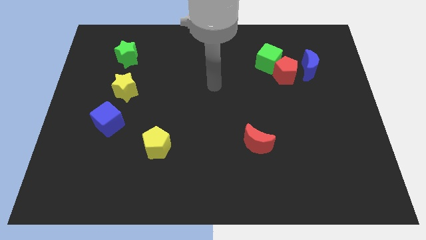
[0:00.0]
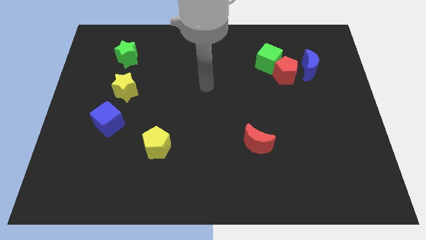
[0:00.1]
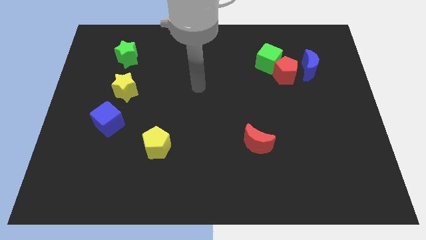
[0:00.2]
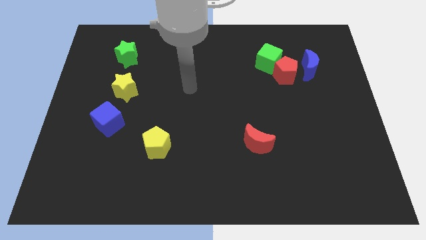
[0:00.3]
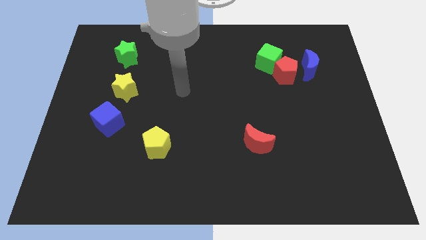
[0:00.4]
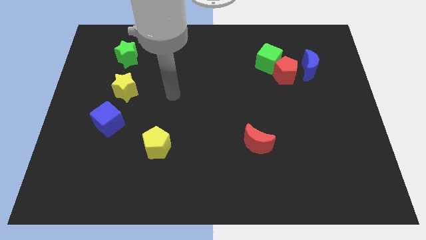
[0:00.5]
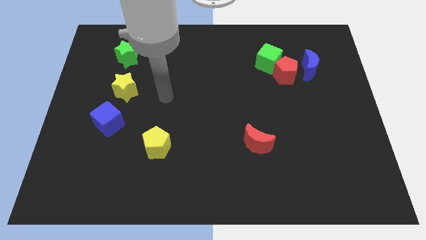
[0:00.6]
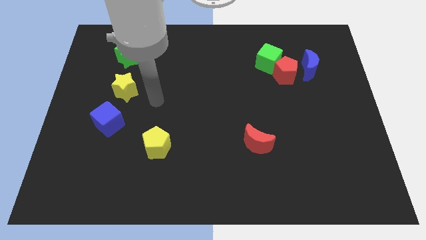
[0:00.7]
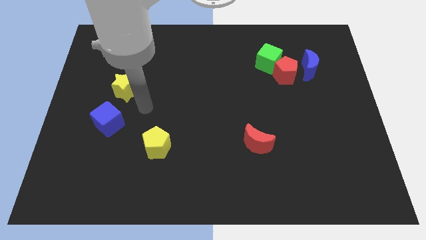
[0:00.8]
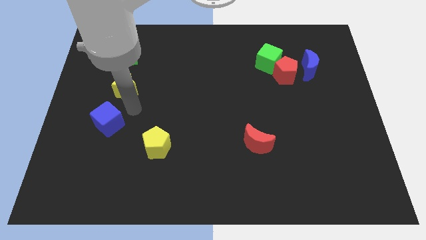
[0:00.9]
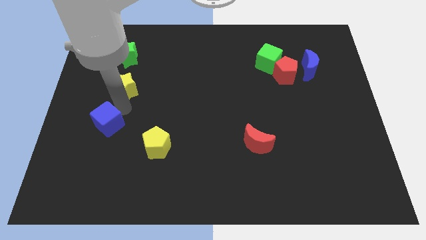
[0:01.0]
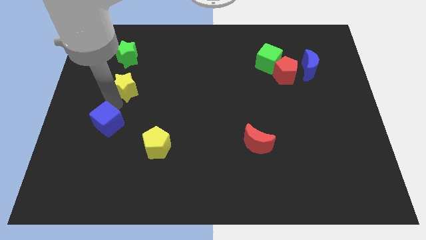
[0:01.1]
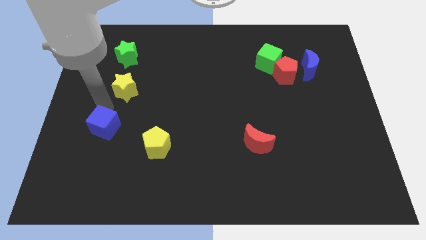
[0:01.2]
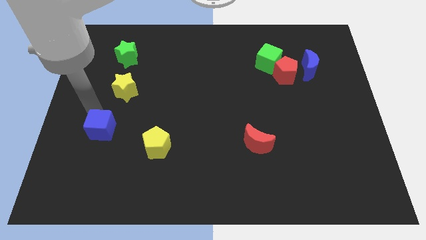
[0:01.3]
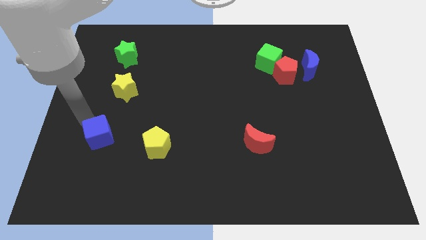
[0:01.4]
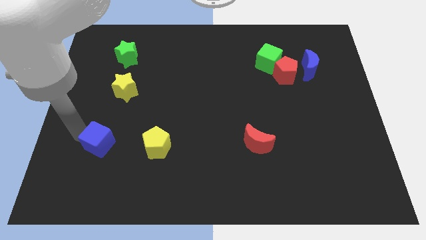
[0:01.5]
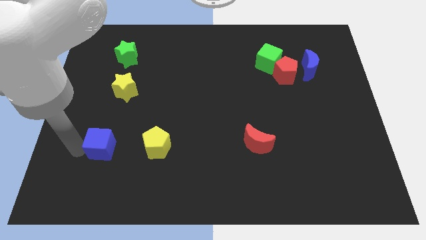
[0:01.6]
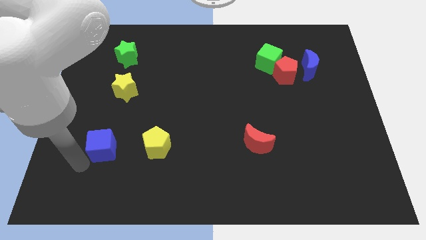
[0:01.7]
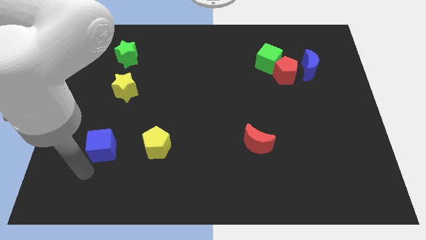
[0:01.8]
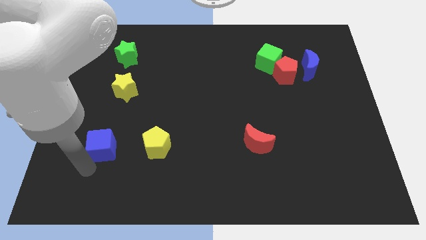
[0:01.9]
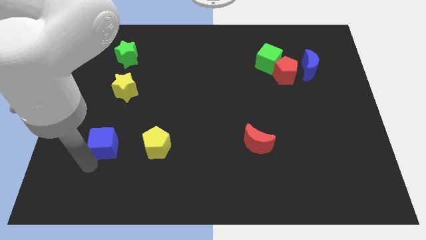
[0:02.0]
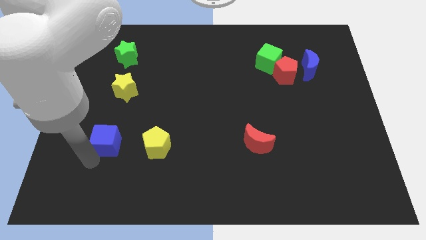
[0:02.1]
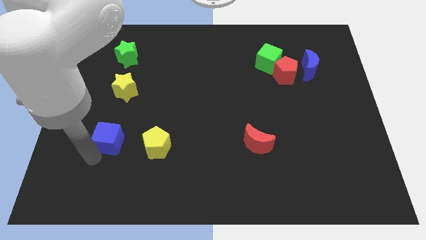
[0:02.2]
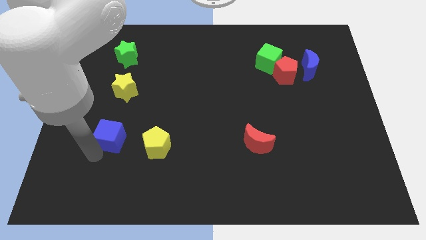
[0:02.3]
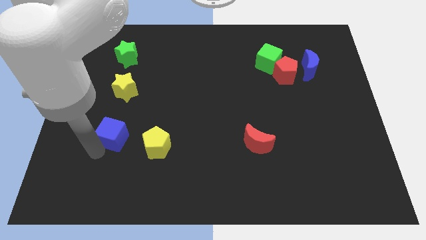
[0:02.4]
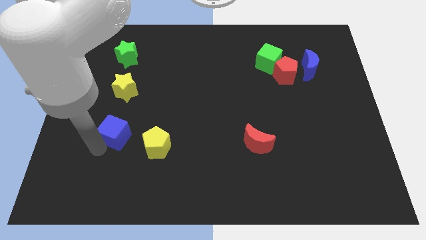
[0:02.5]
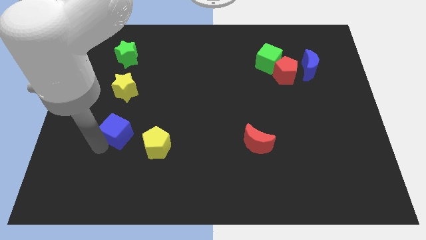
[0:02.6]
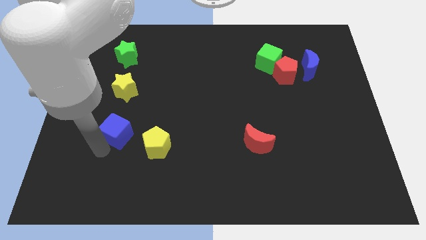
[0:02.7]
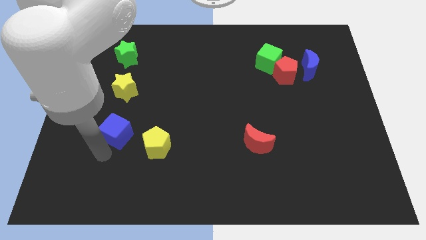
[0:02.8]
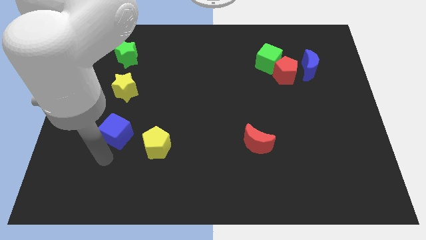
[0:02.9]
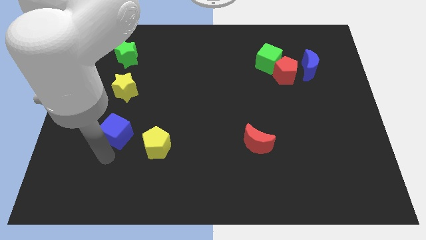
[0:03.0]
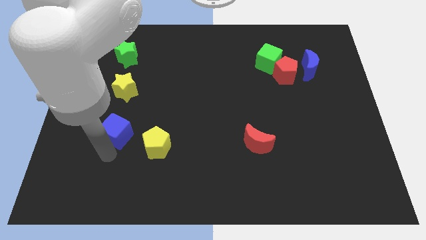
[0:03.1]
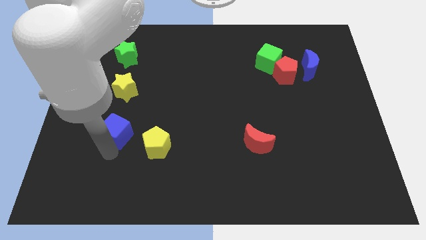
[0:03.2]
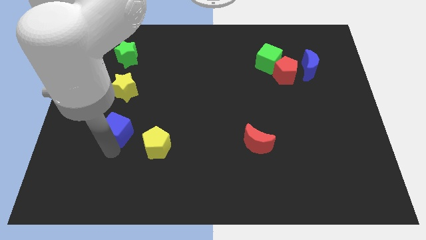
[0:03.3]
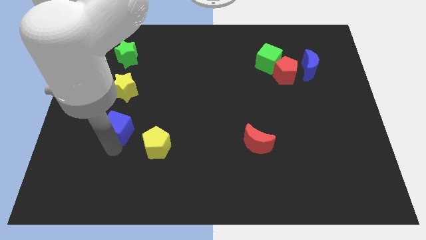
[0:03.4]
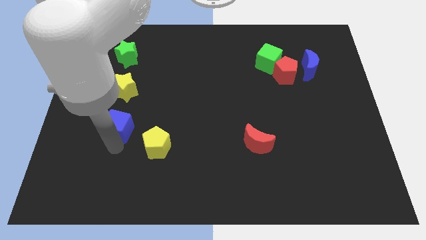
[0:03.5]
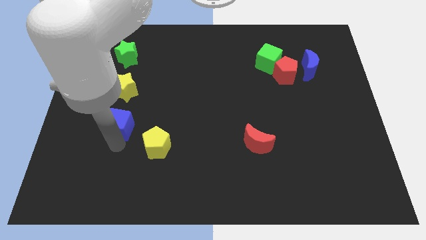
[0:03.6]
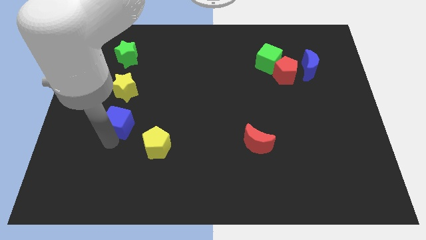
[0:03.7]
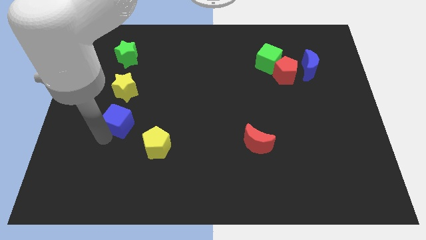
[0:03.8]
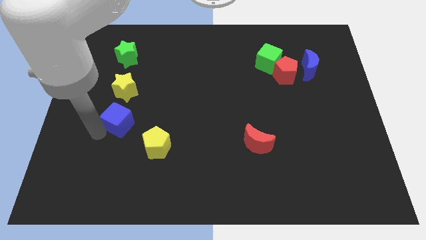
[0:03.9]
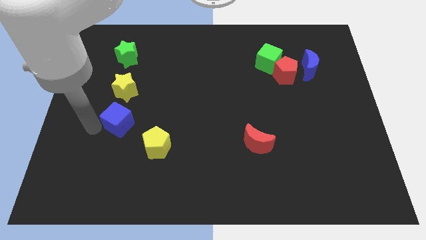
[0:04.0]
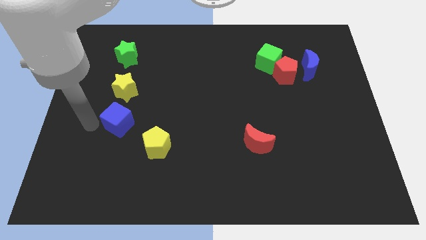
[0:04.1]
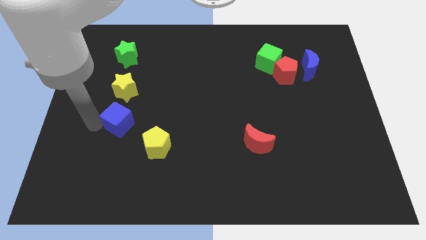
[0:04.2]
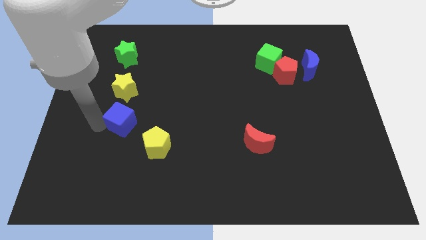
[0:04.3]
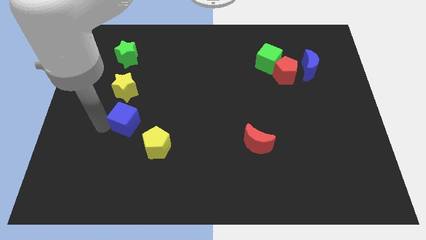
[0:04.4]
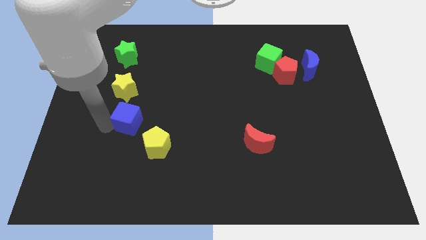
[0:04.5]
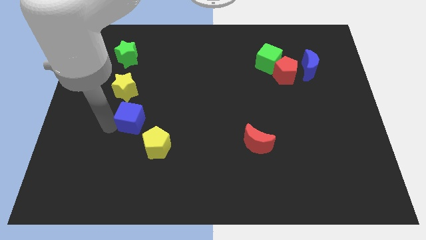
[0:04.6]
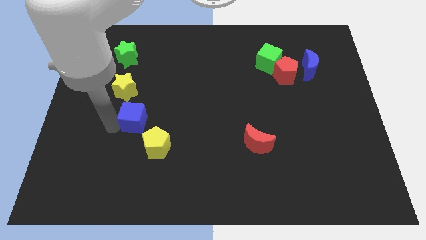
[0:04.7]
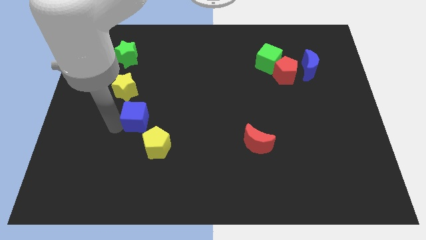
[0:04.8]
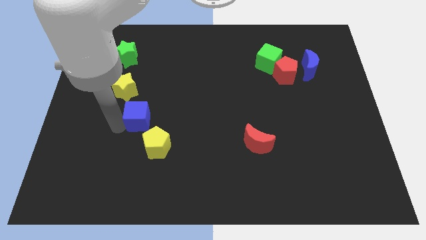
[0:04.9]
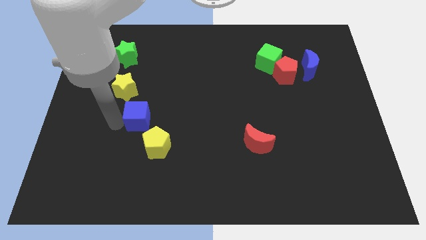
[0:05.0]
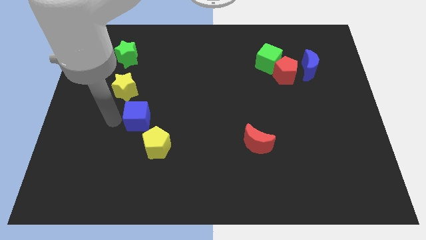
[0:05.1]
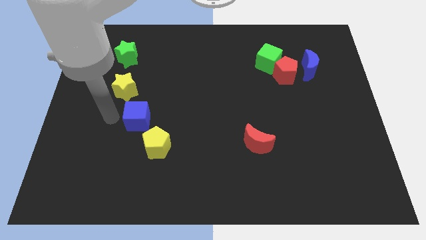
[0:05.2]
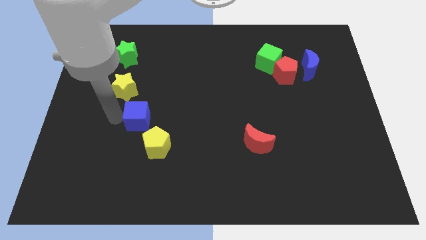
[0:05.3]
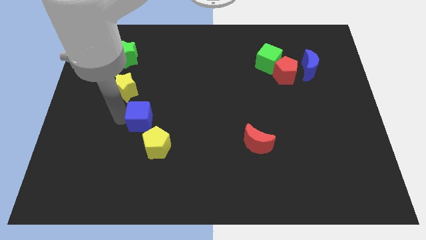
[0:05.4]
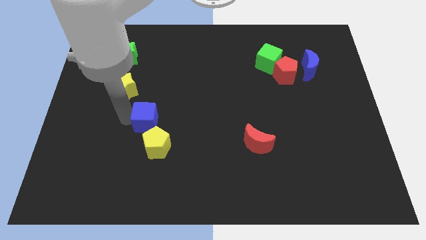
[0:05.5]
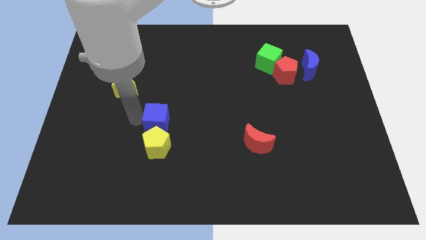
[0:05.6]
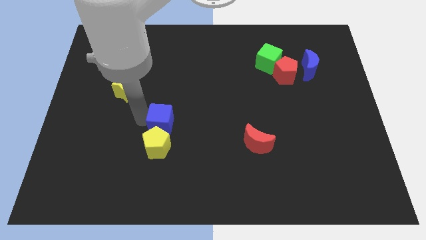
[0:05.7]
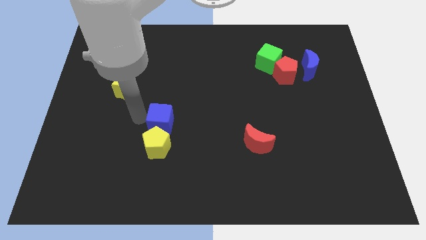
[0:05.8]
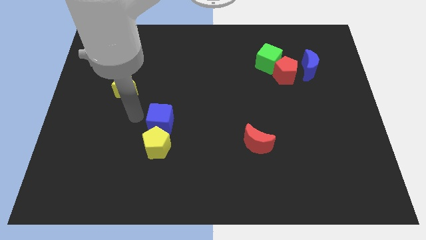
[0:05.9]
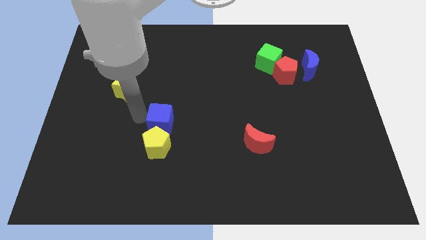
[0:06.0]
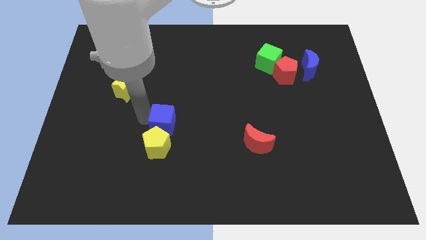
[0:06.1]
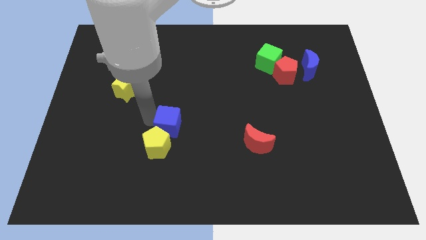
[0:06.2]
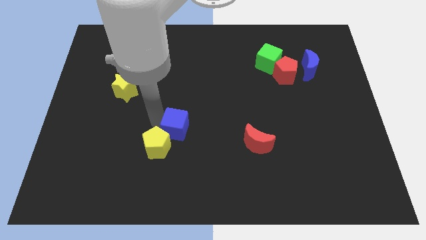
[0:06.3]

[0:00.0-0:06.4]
slide the blue cube to the right of the yellow pentagon

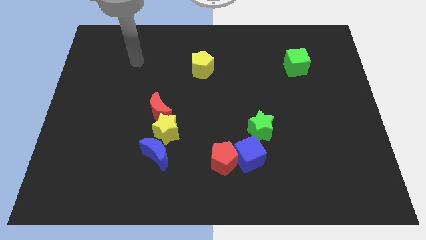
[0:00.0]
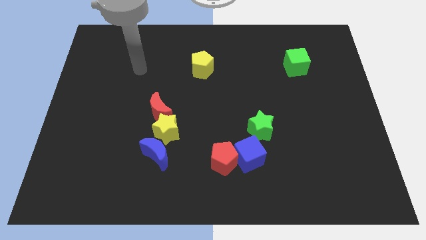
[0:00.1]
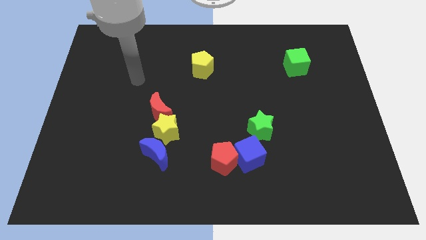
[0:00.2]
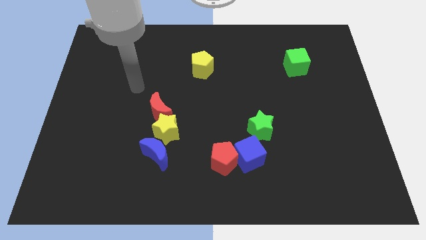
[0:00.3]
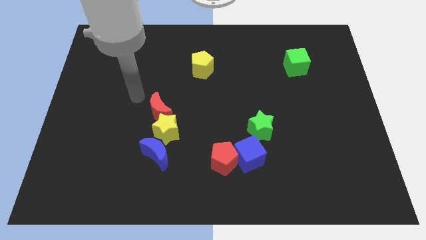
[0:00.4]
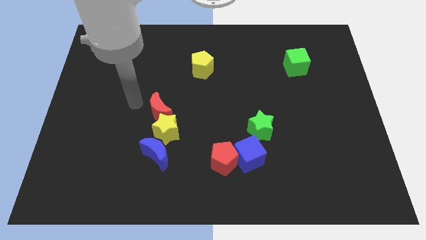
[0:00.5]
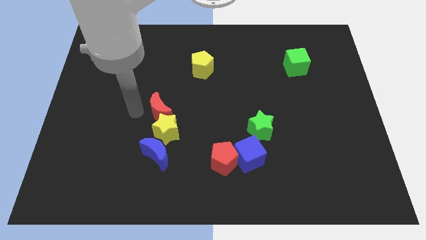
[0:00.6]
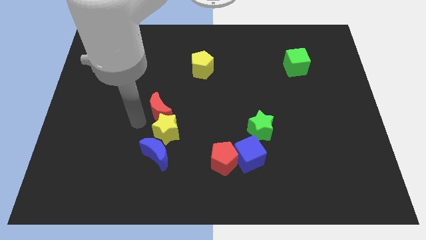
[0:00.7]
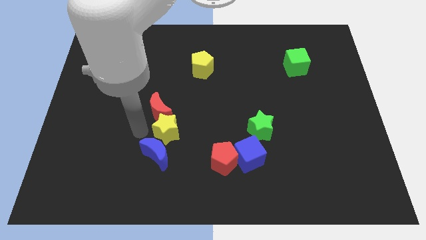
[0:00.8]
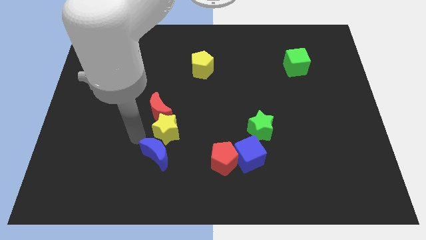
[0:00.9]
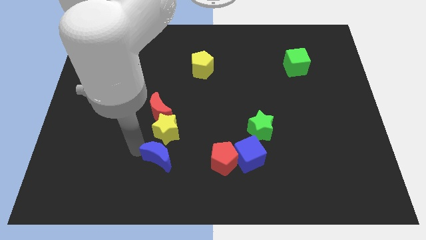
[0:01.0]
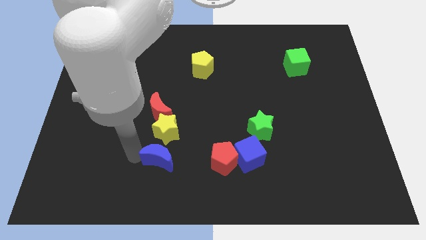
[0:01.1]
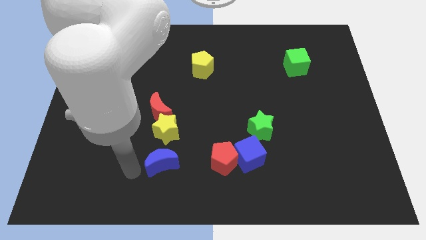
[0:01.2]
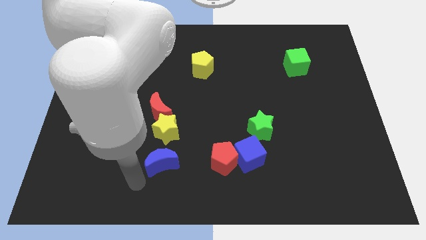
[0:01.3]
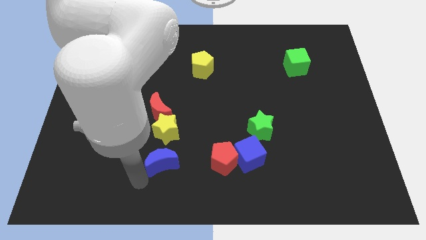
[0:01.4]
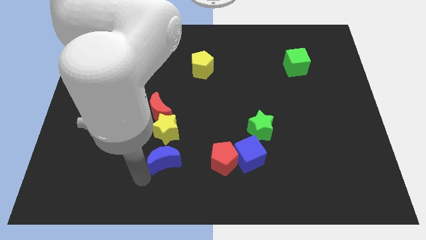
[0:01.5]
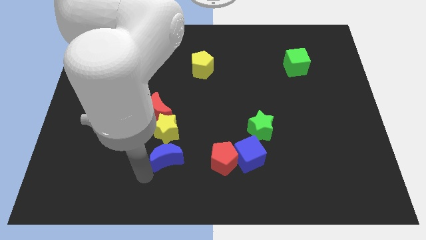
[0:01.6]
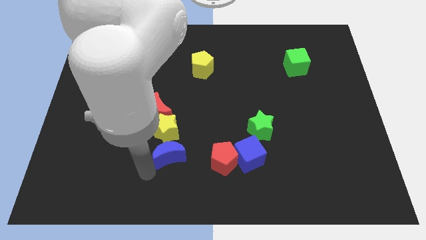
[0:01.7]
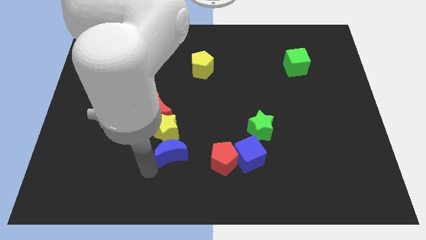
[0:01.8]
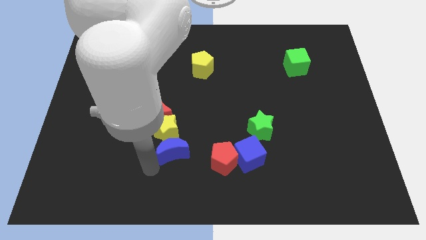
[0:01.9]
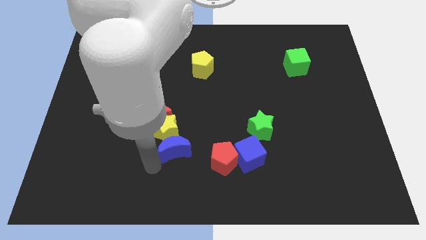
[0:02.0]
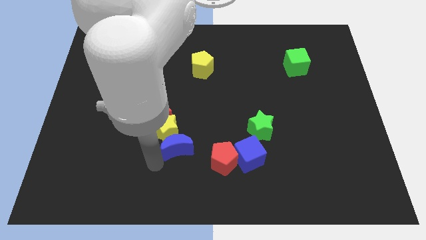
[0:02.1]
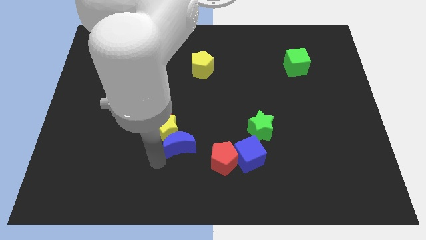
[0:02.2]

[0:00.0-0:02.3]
slide the blue moon to the top left side of the red pentagon
